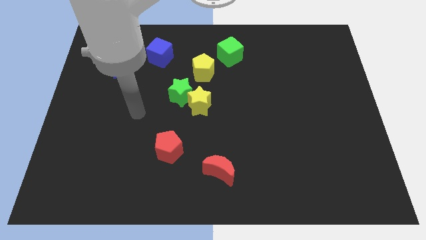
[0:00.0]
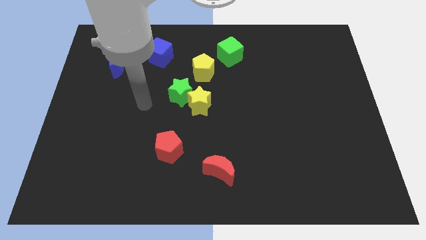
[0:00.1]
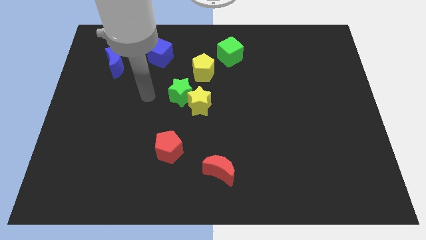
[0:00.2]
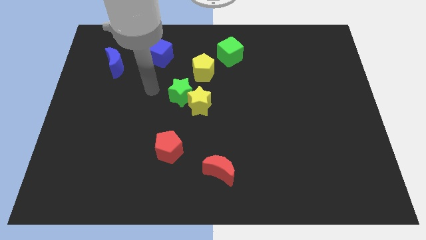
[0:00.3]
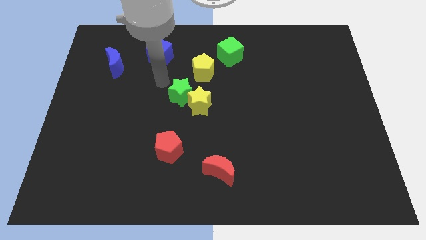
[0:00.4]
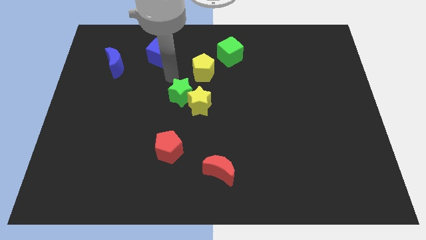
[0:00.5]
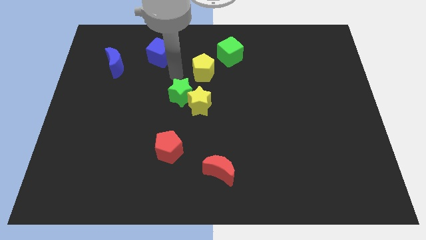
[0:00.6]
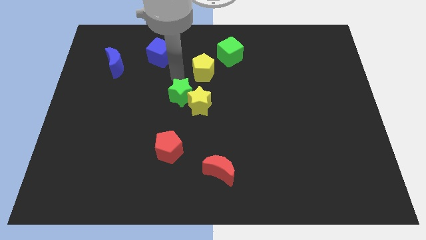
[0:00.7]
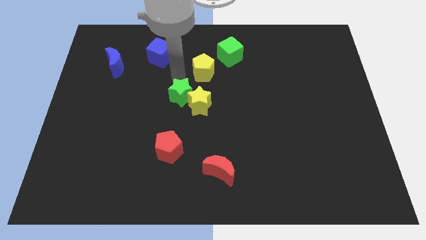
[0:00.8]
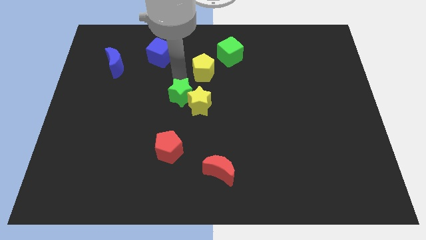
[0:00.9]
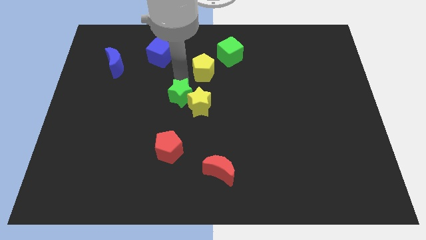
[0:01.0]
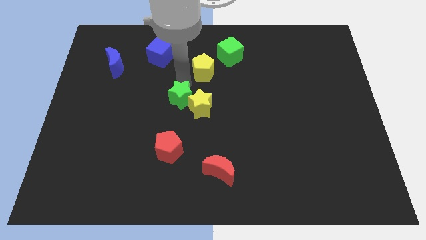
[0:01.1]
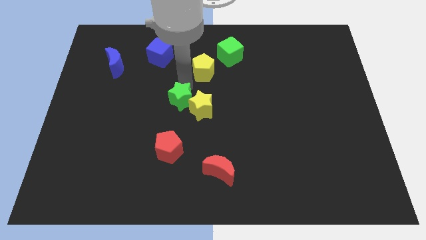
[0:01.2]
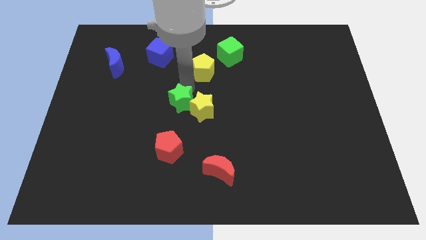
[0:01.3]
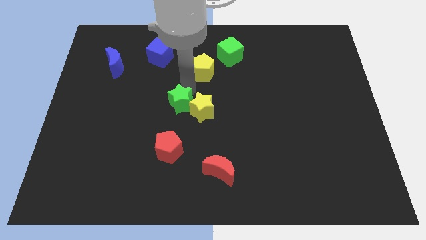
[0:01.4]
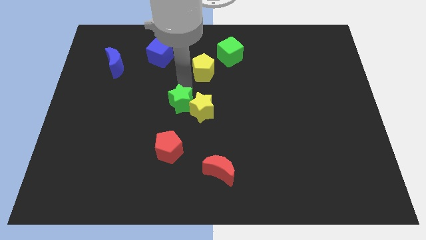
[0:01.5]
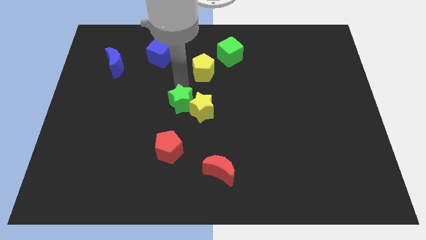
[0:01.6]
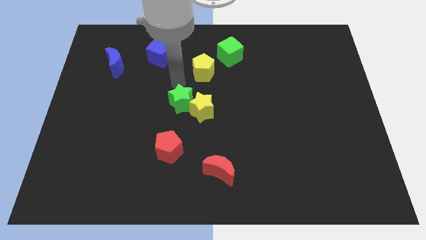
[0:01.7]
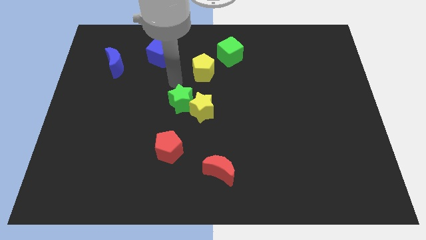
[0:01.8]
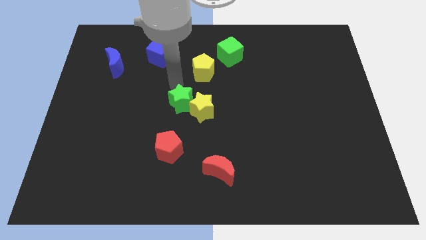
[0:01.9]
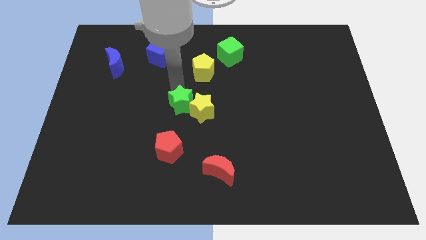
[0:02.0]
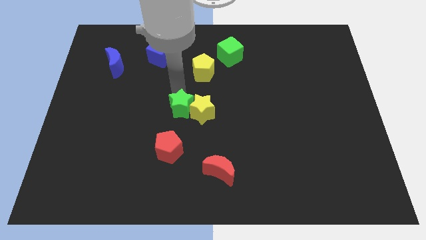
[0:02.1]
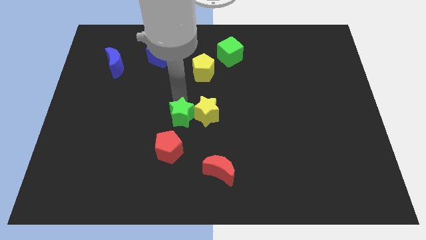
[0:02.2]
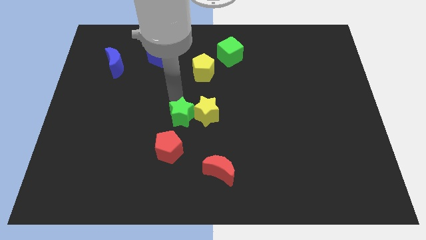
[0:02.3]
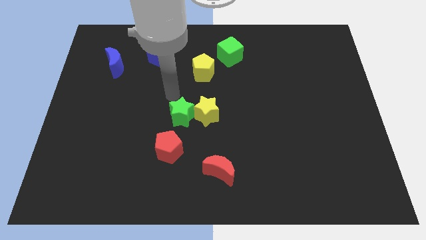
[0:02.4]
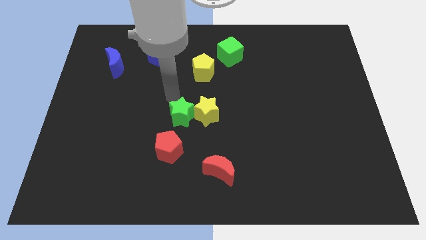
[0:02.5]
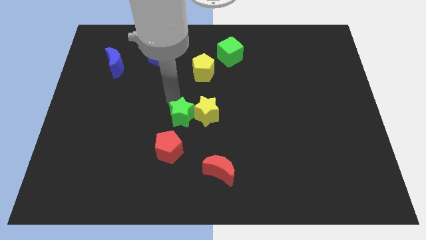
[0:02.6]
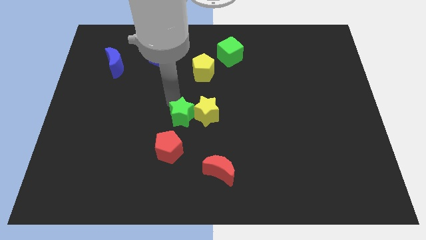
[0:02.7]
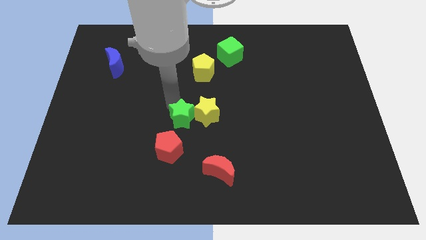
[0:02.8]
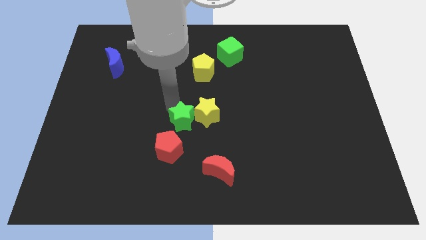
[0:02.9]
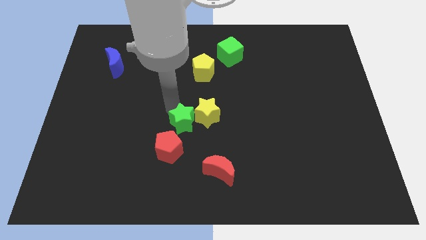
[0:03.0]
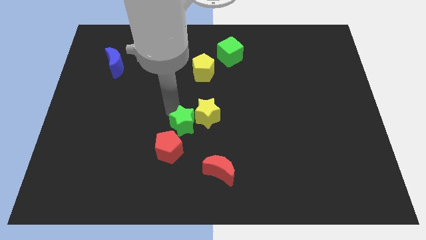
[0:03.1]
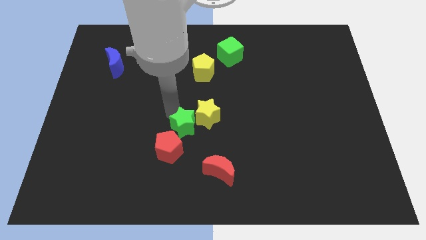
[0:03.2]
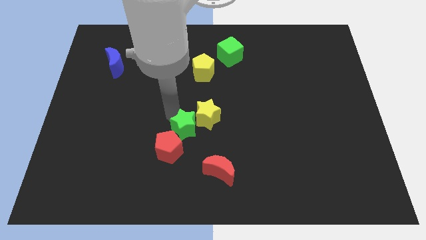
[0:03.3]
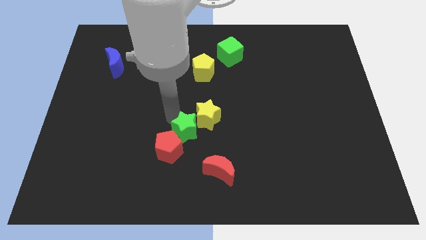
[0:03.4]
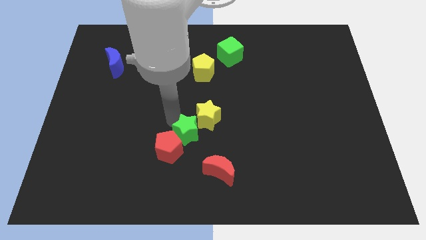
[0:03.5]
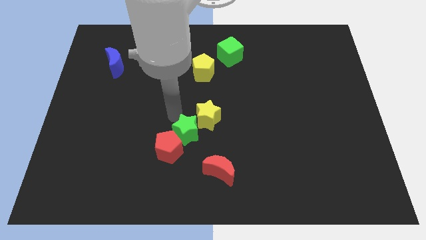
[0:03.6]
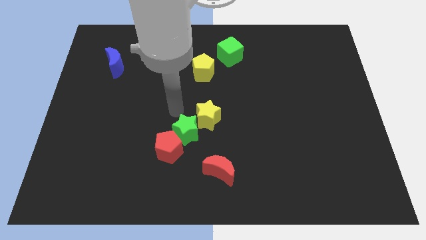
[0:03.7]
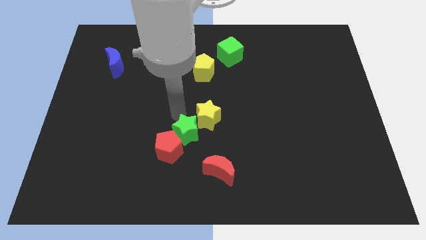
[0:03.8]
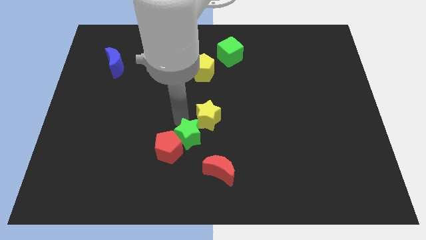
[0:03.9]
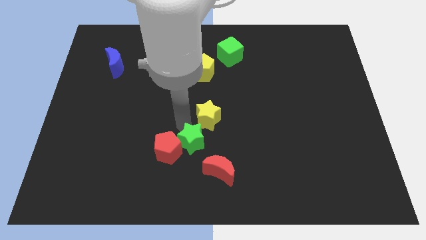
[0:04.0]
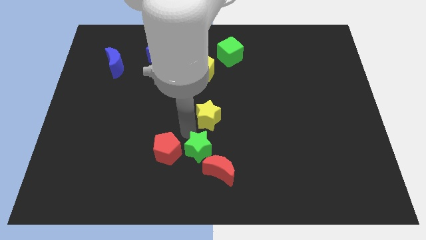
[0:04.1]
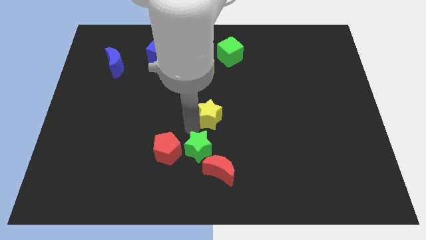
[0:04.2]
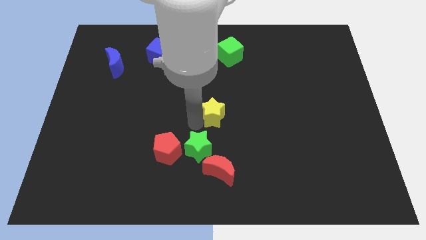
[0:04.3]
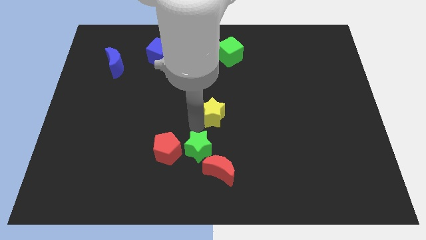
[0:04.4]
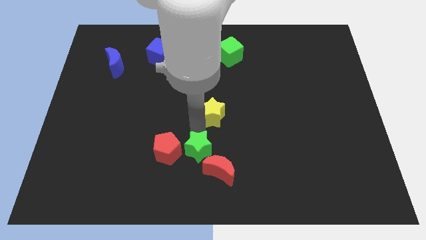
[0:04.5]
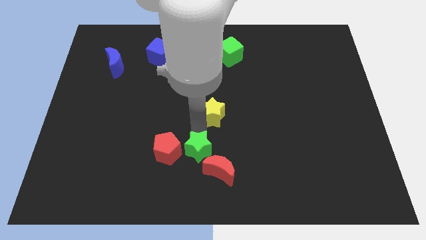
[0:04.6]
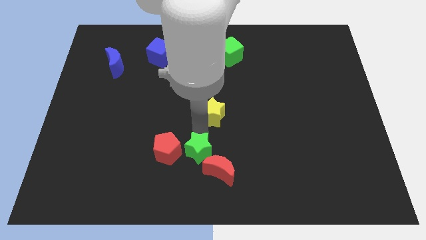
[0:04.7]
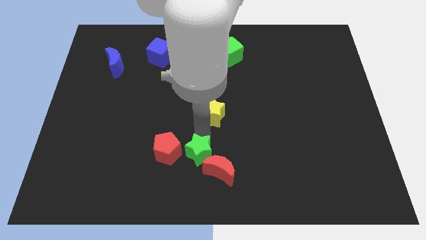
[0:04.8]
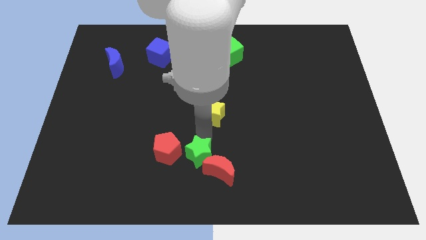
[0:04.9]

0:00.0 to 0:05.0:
move the green star to the bottom side

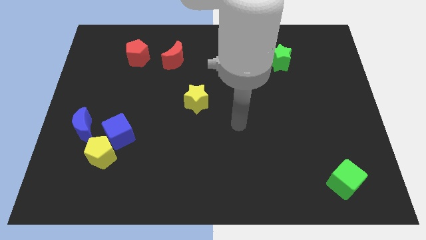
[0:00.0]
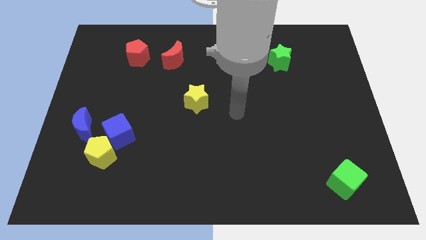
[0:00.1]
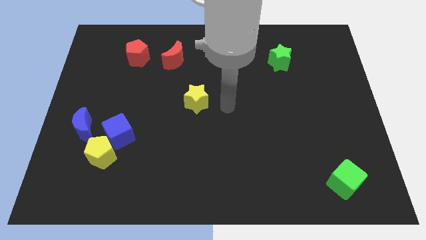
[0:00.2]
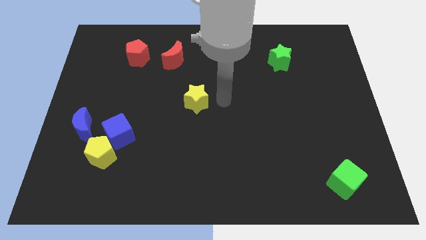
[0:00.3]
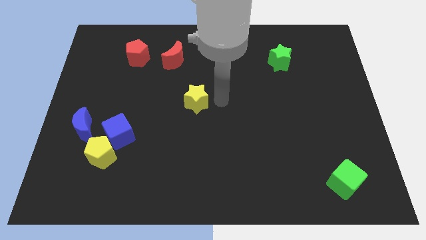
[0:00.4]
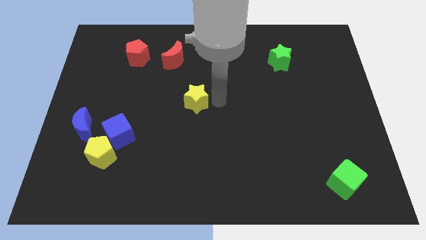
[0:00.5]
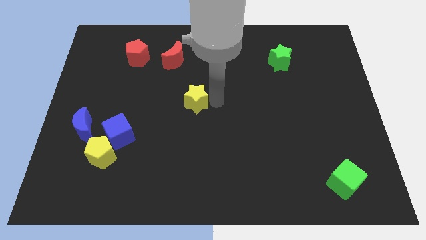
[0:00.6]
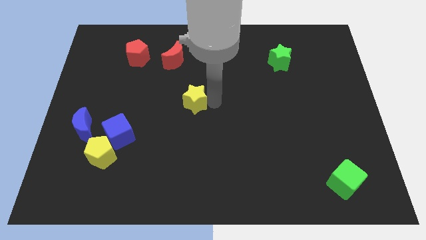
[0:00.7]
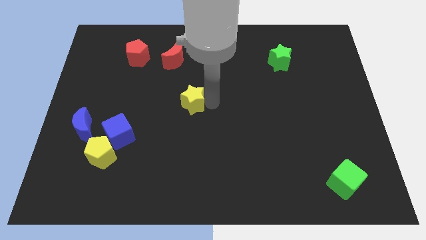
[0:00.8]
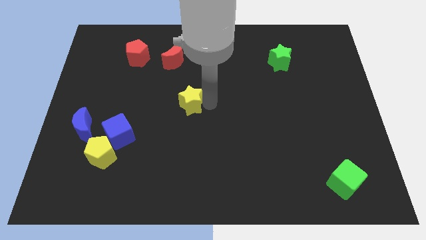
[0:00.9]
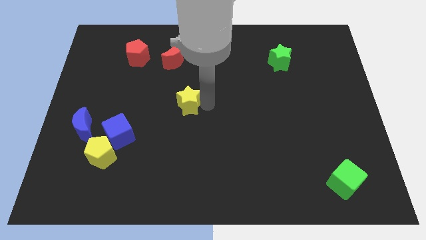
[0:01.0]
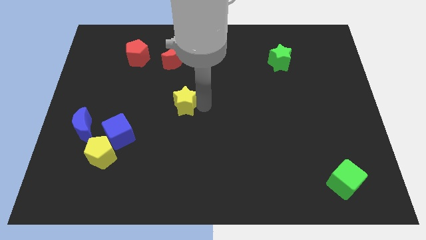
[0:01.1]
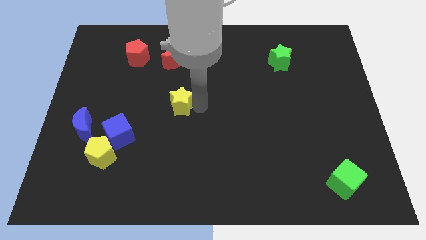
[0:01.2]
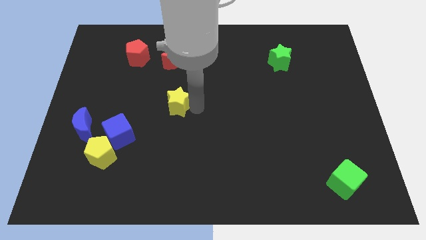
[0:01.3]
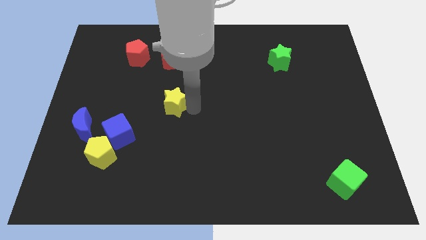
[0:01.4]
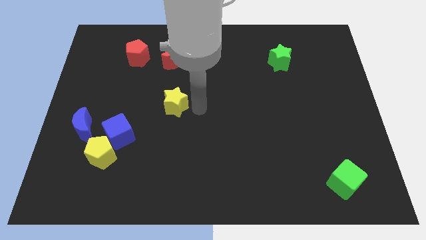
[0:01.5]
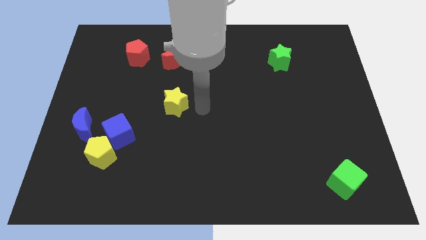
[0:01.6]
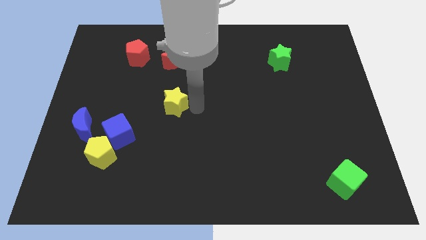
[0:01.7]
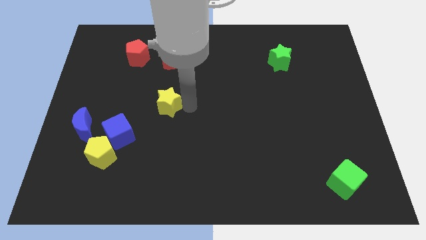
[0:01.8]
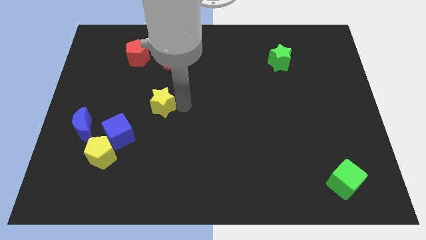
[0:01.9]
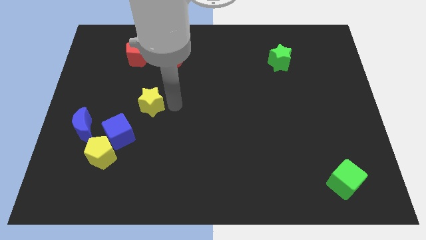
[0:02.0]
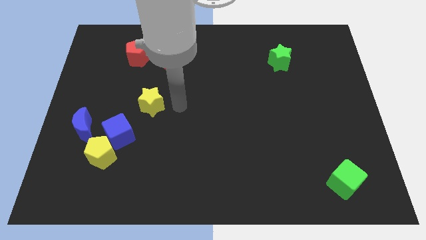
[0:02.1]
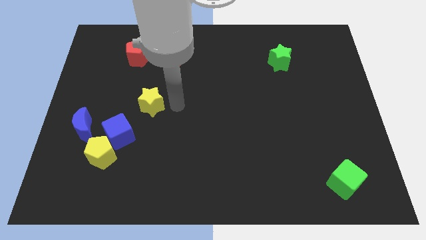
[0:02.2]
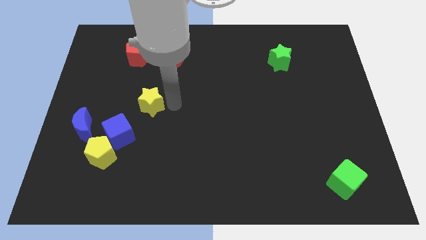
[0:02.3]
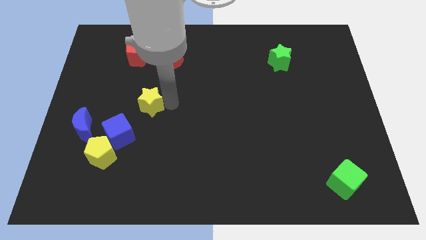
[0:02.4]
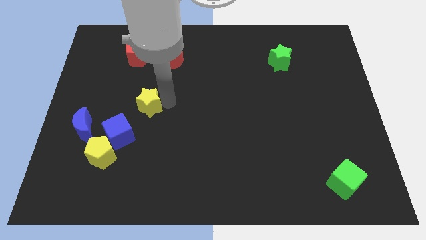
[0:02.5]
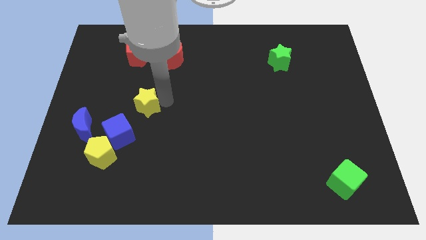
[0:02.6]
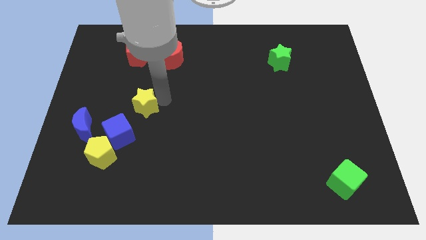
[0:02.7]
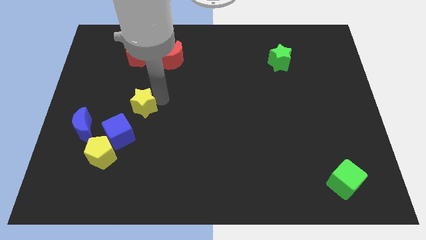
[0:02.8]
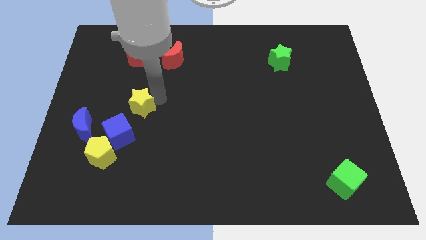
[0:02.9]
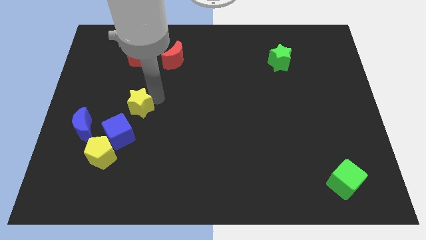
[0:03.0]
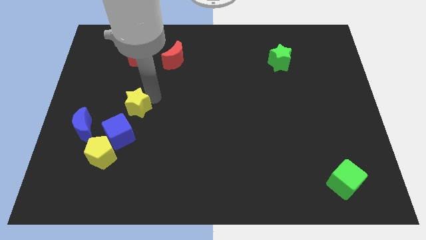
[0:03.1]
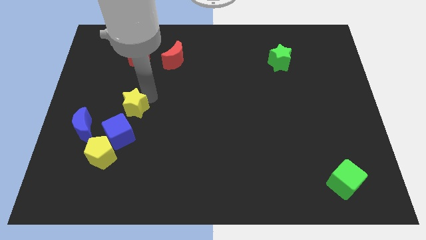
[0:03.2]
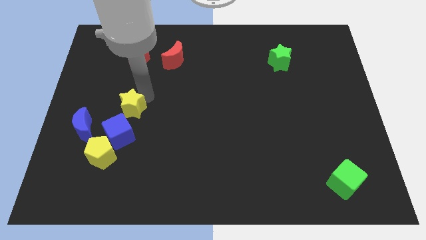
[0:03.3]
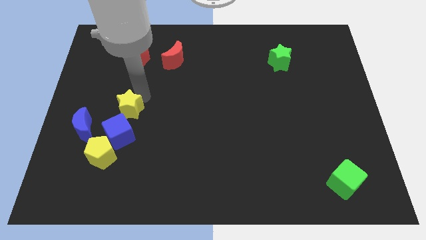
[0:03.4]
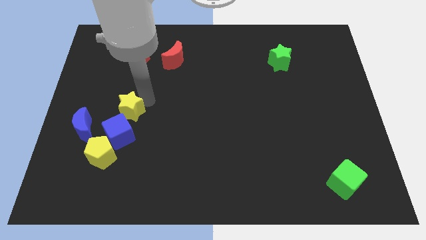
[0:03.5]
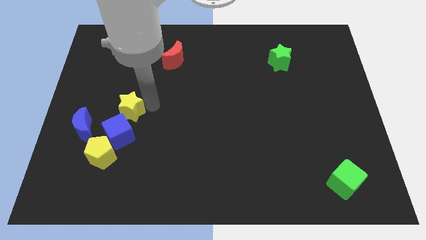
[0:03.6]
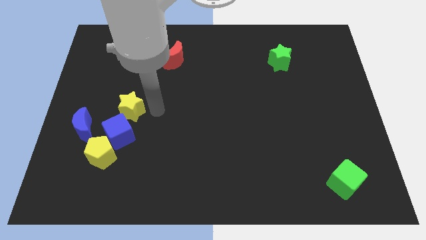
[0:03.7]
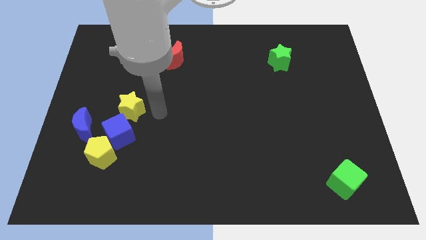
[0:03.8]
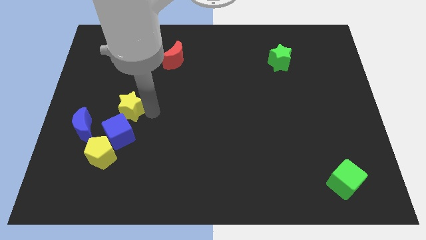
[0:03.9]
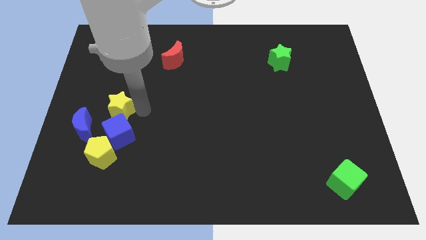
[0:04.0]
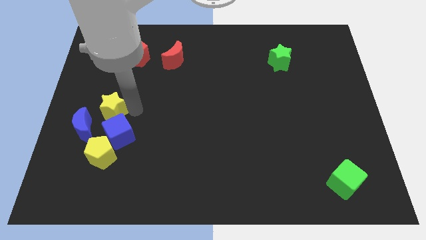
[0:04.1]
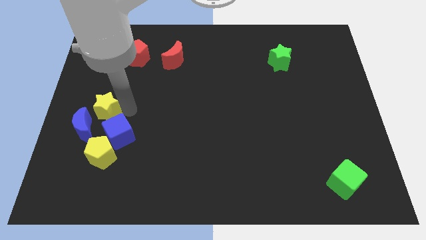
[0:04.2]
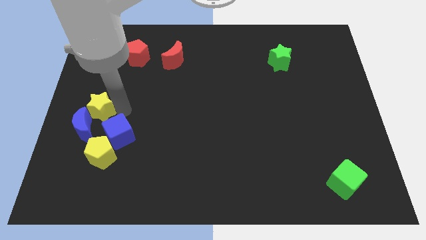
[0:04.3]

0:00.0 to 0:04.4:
push the yellow star to the center left
